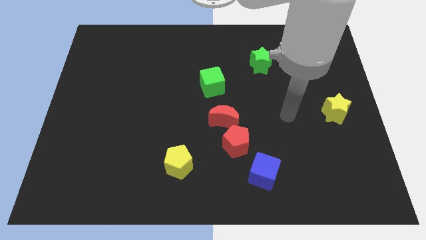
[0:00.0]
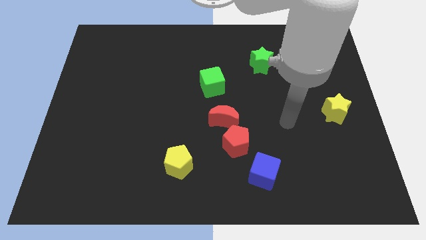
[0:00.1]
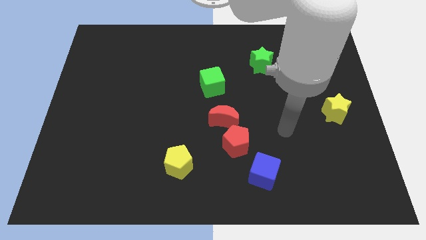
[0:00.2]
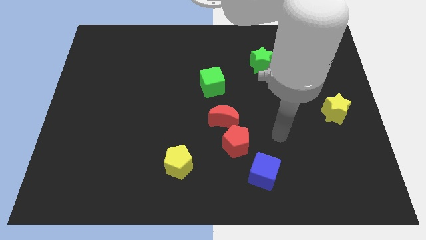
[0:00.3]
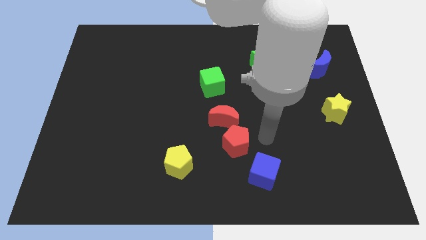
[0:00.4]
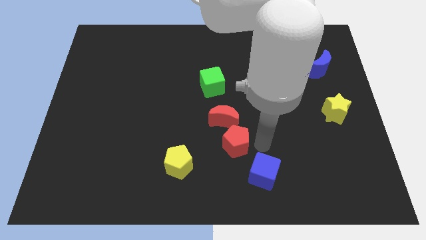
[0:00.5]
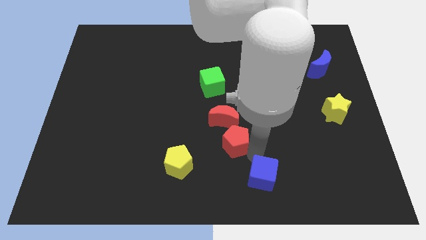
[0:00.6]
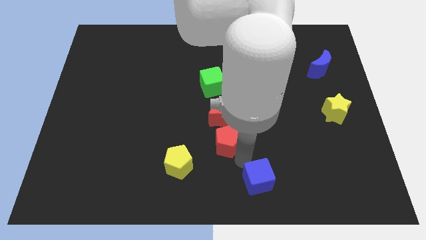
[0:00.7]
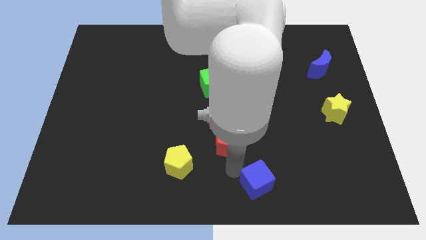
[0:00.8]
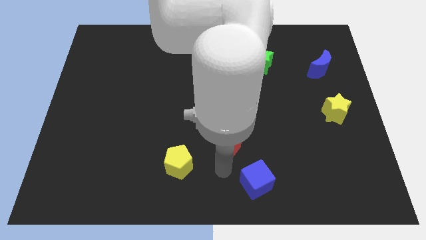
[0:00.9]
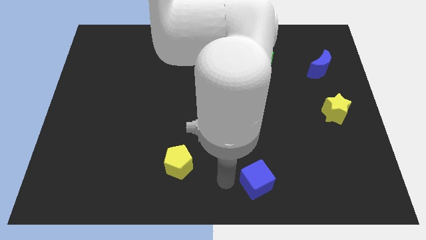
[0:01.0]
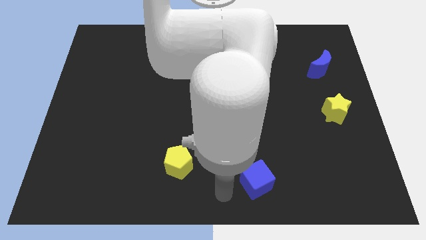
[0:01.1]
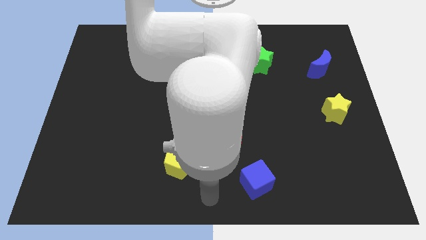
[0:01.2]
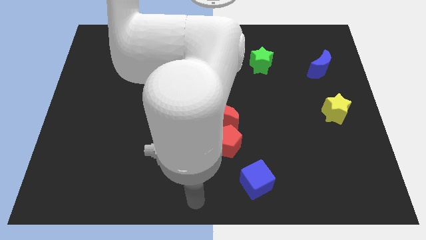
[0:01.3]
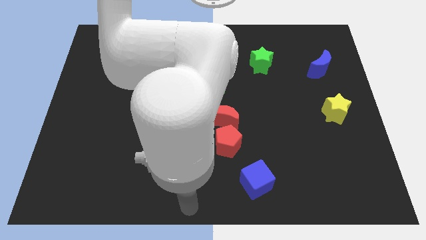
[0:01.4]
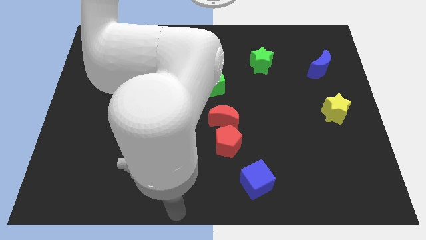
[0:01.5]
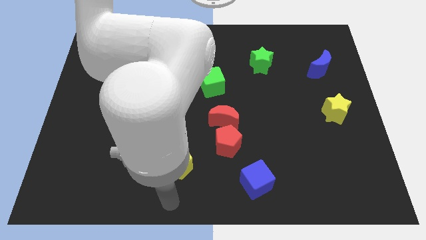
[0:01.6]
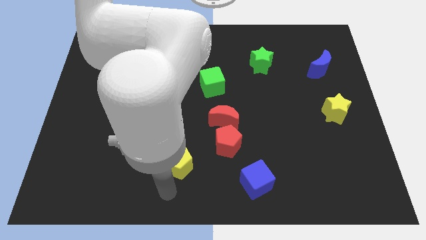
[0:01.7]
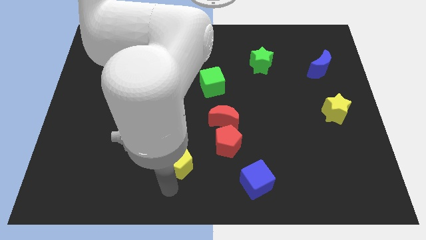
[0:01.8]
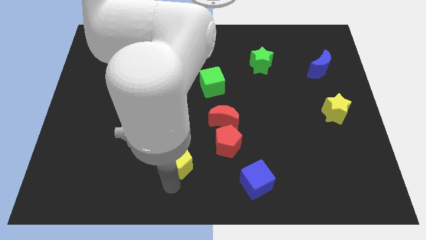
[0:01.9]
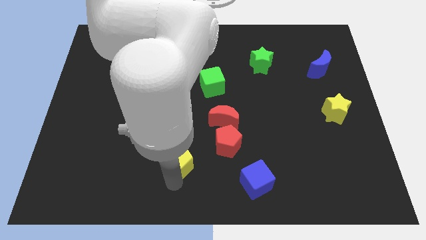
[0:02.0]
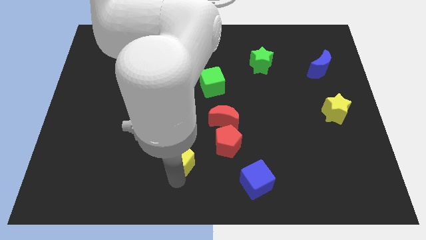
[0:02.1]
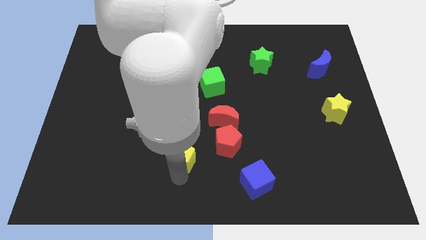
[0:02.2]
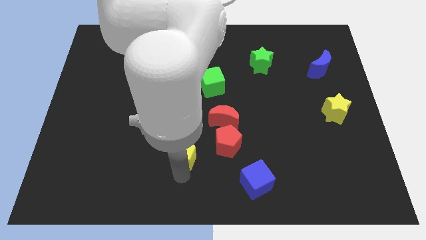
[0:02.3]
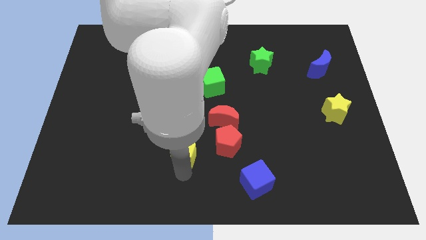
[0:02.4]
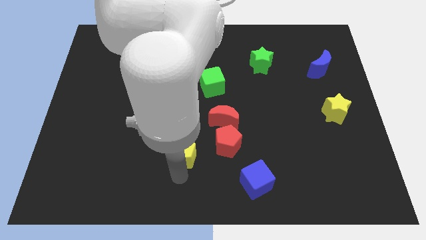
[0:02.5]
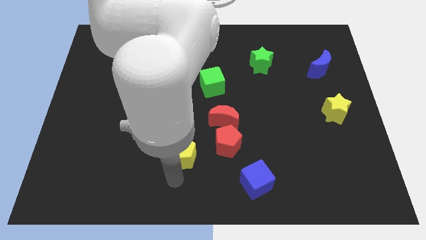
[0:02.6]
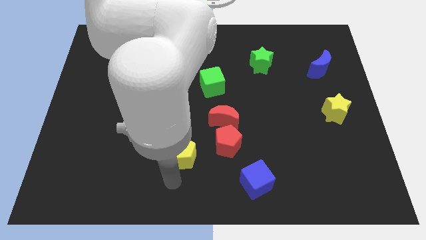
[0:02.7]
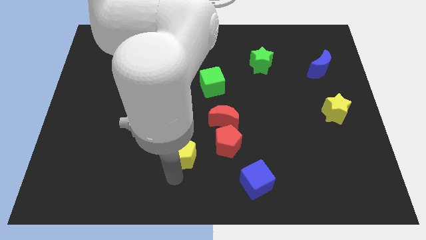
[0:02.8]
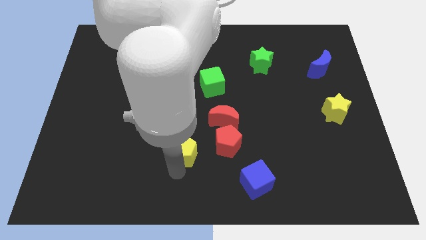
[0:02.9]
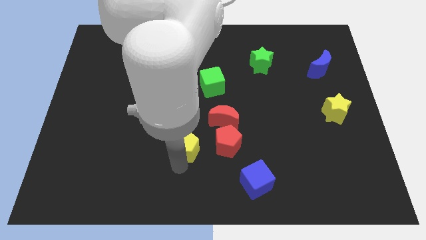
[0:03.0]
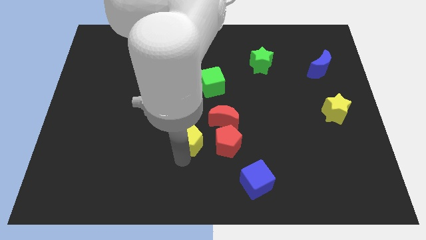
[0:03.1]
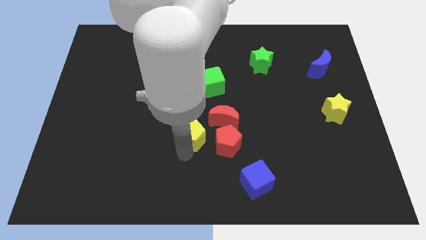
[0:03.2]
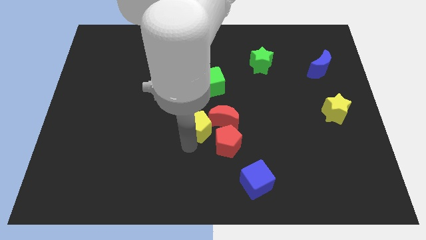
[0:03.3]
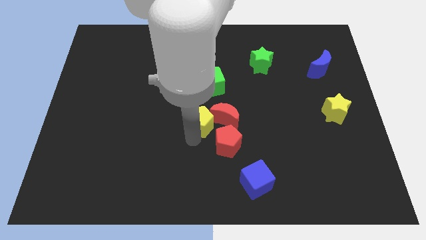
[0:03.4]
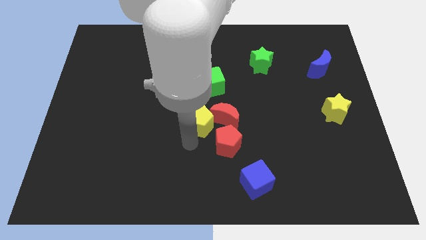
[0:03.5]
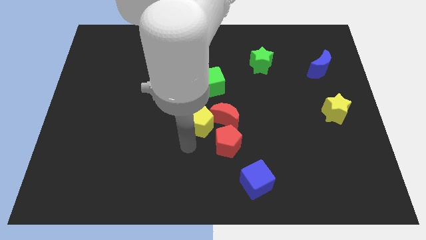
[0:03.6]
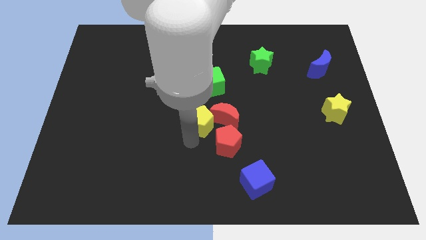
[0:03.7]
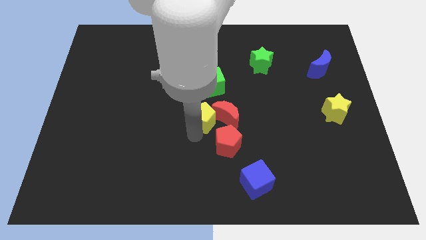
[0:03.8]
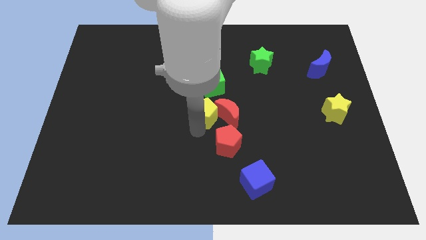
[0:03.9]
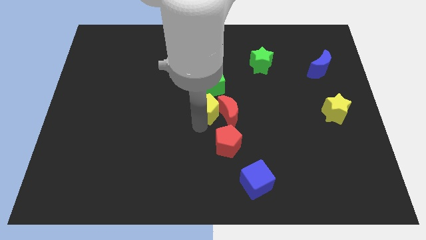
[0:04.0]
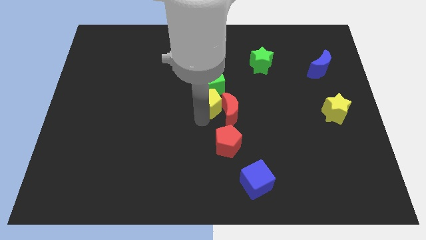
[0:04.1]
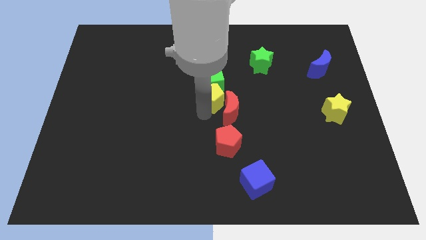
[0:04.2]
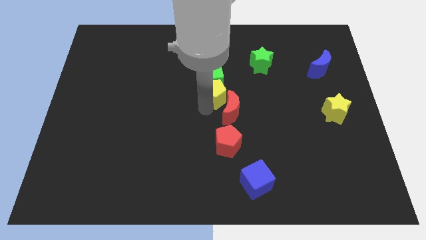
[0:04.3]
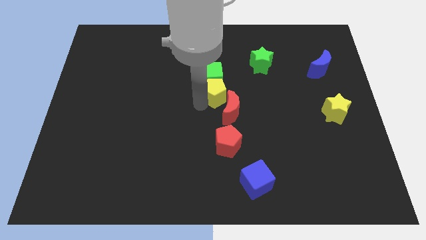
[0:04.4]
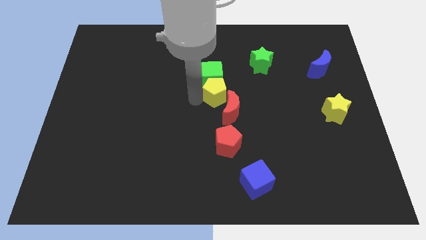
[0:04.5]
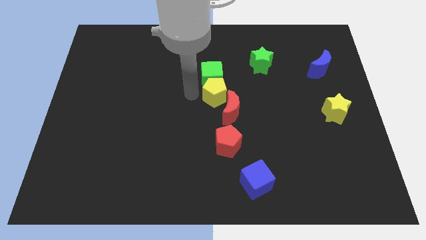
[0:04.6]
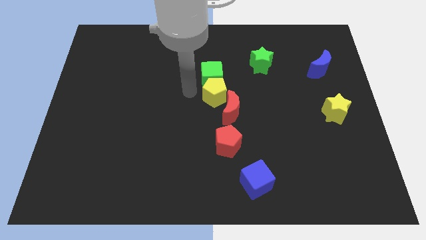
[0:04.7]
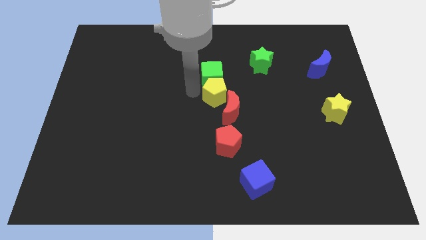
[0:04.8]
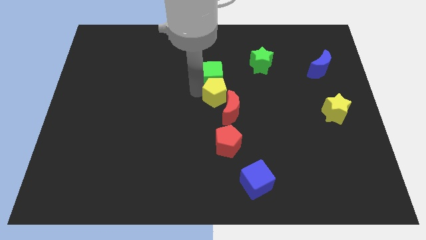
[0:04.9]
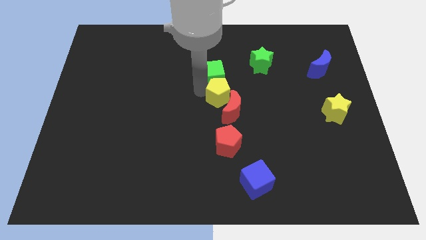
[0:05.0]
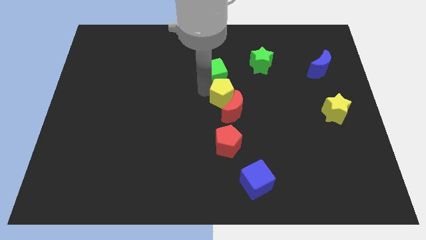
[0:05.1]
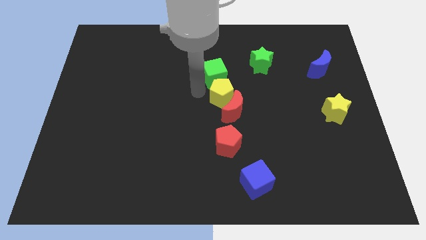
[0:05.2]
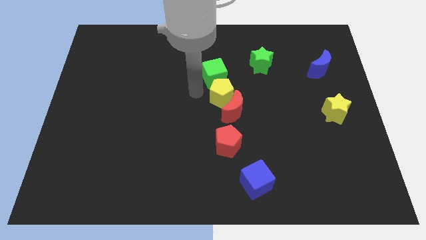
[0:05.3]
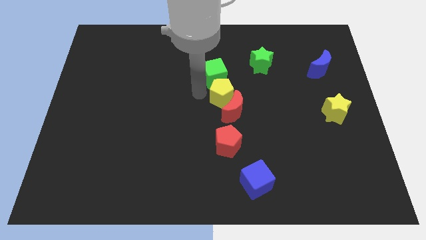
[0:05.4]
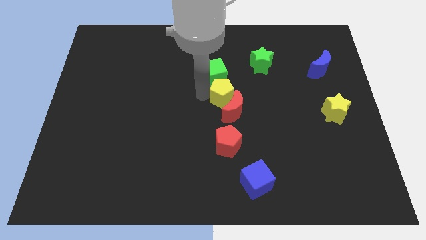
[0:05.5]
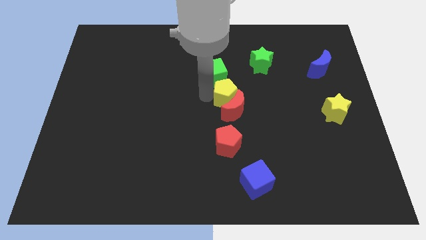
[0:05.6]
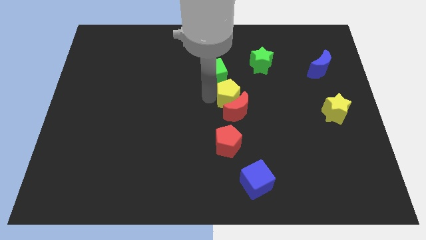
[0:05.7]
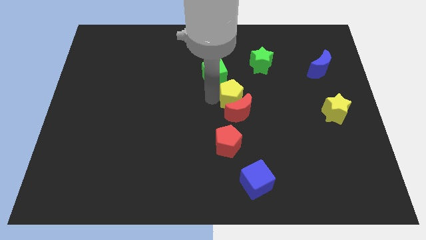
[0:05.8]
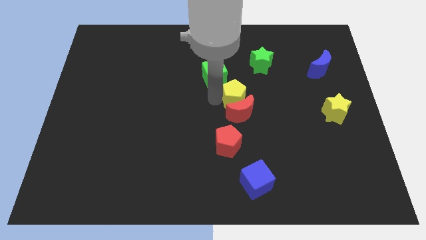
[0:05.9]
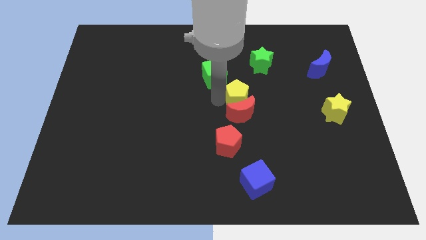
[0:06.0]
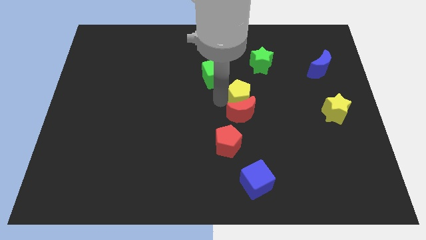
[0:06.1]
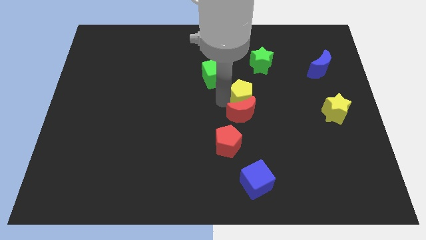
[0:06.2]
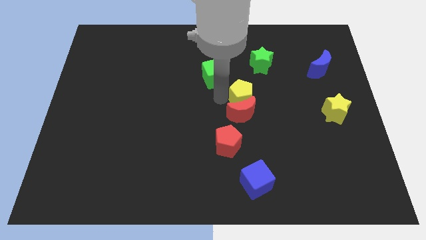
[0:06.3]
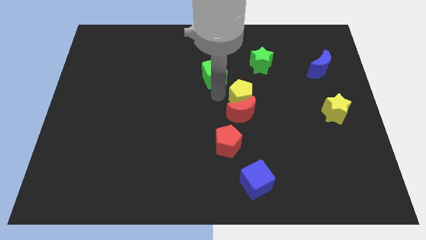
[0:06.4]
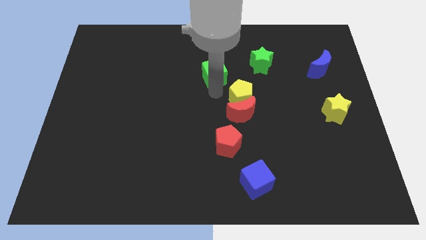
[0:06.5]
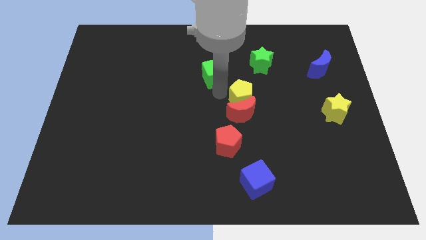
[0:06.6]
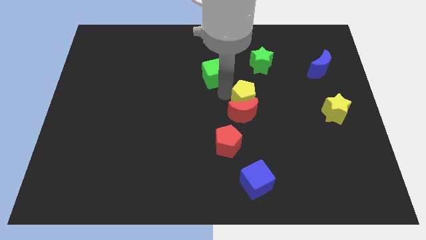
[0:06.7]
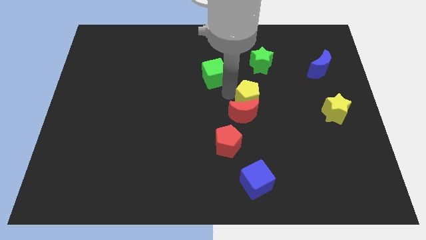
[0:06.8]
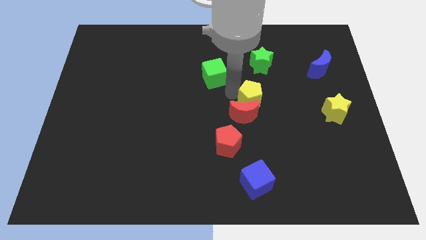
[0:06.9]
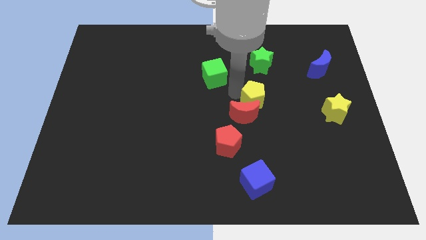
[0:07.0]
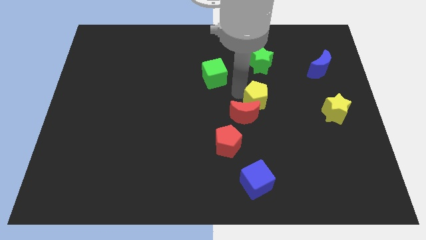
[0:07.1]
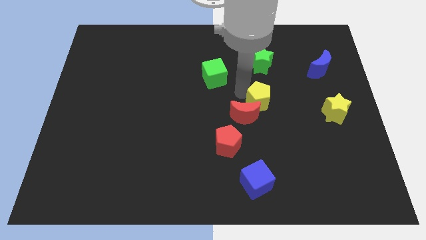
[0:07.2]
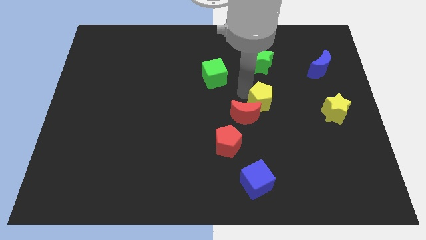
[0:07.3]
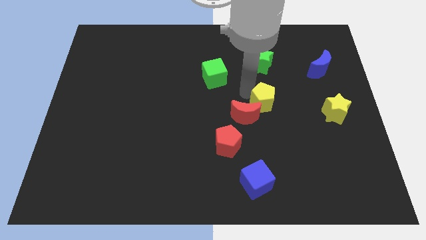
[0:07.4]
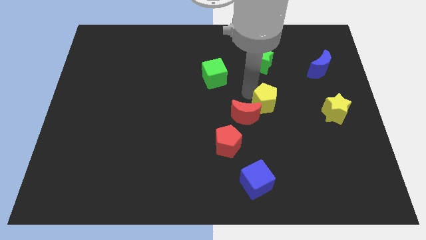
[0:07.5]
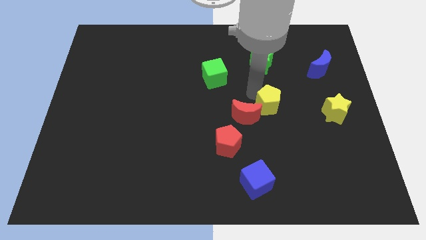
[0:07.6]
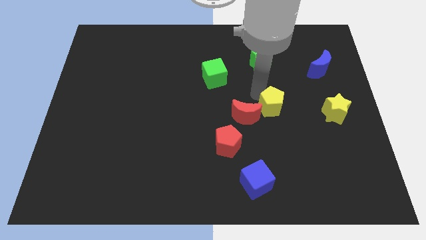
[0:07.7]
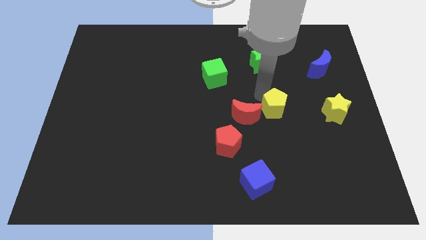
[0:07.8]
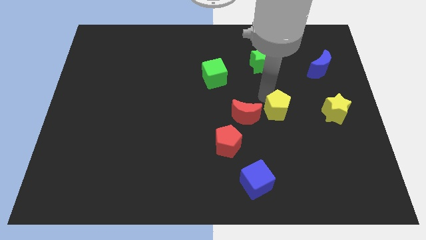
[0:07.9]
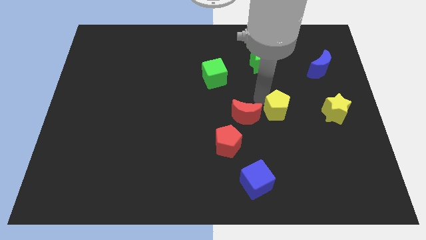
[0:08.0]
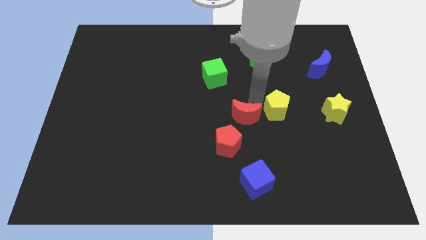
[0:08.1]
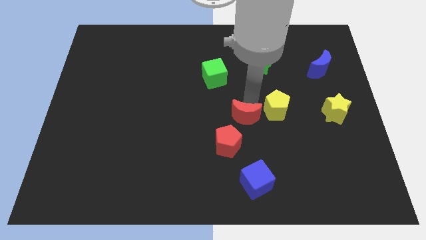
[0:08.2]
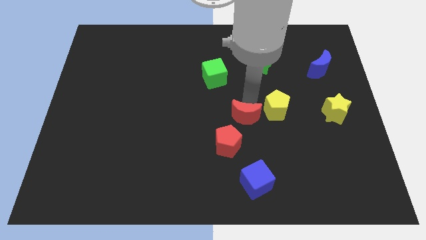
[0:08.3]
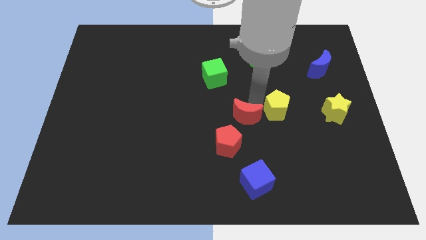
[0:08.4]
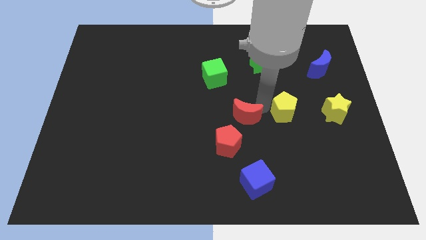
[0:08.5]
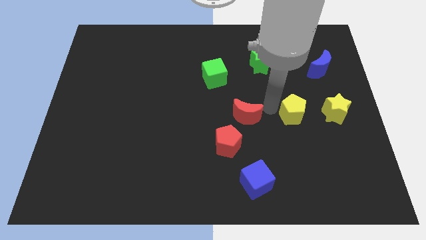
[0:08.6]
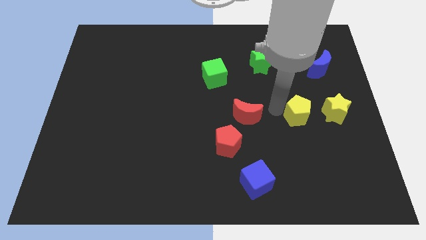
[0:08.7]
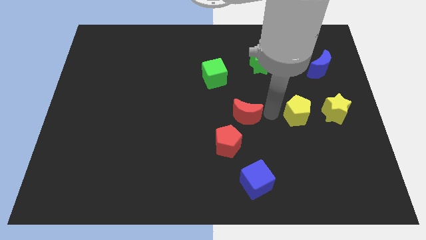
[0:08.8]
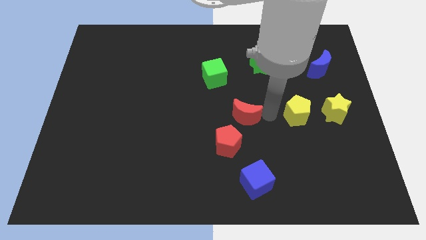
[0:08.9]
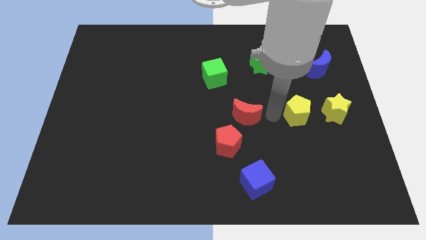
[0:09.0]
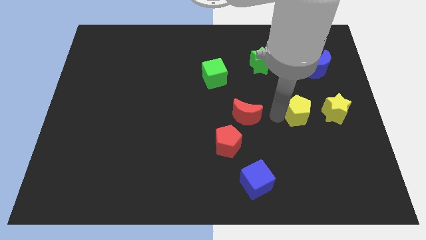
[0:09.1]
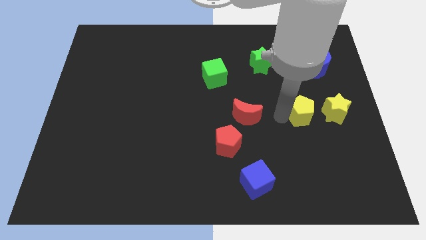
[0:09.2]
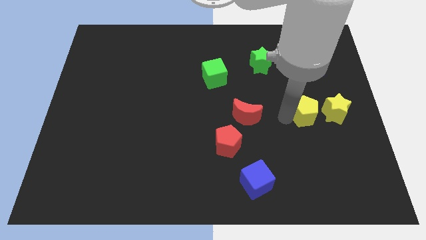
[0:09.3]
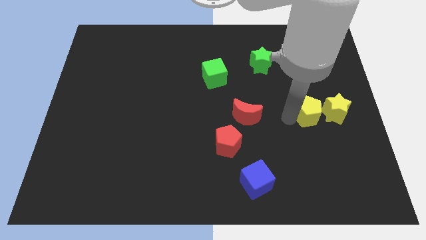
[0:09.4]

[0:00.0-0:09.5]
slide the yellow pentagon close to the yellow star
